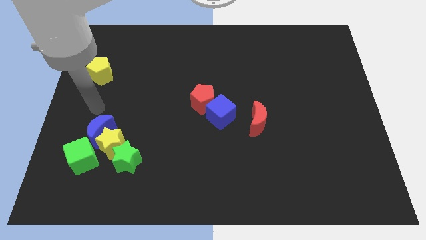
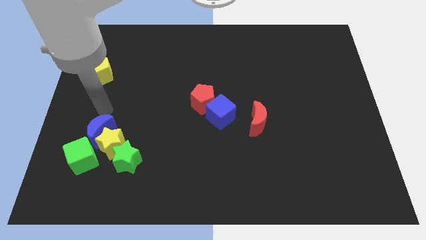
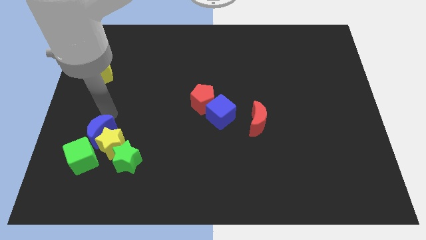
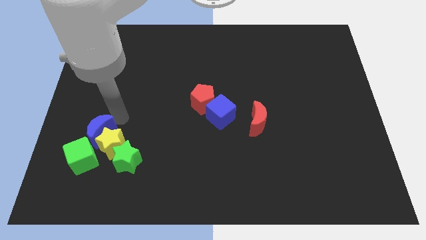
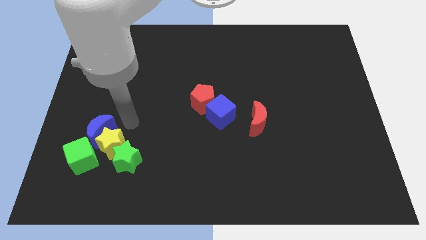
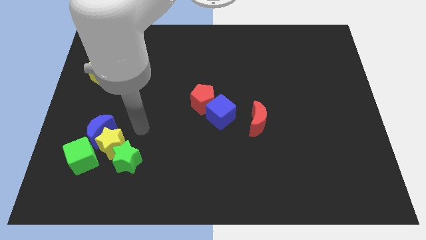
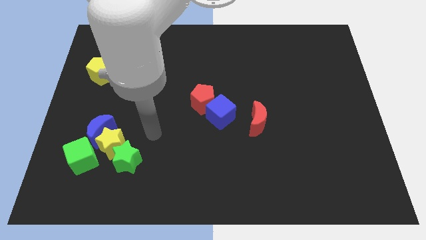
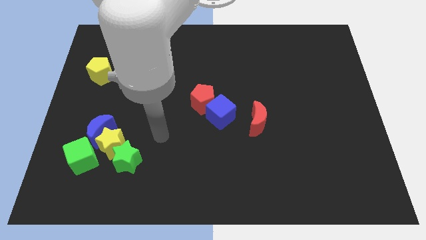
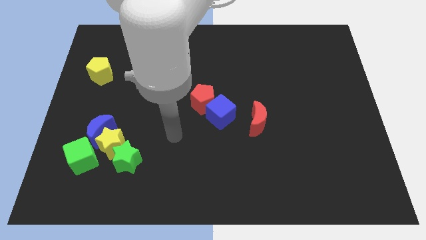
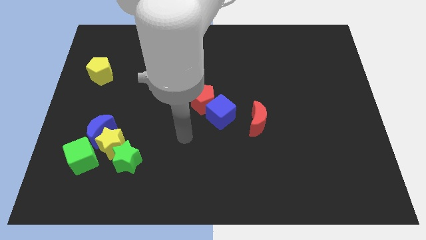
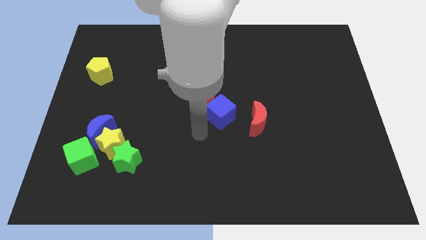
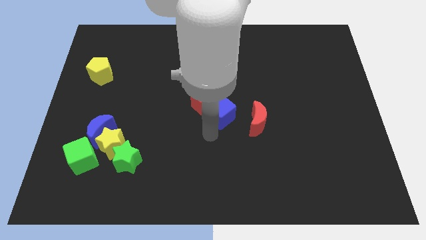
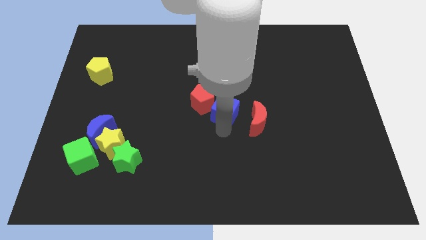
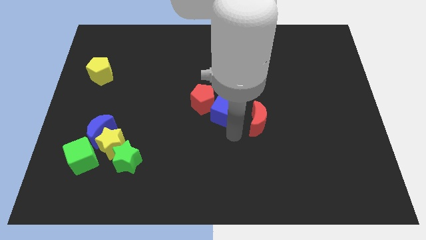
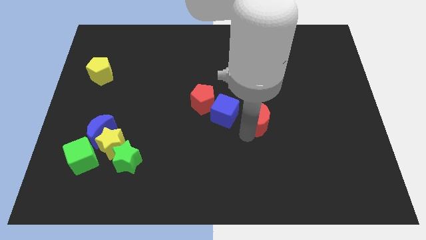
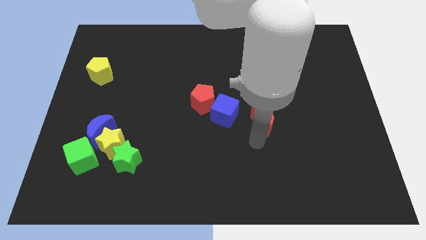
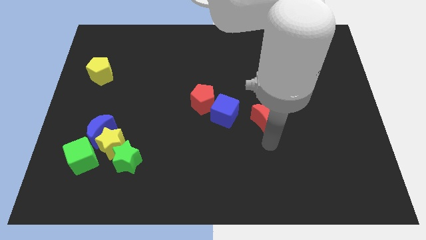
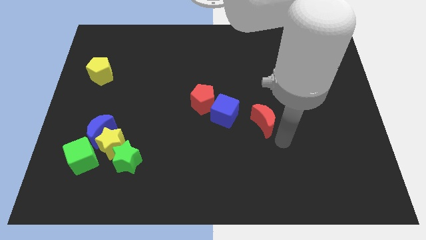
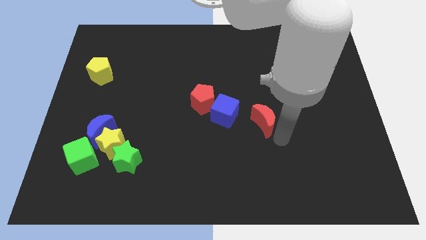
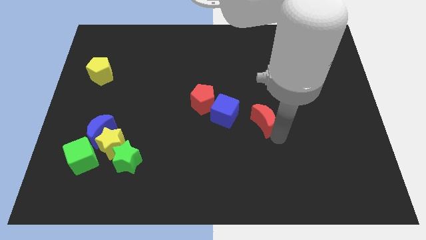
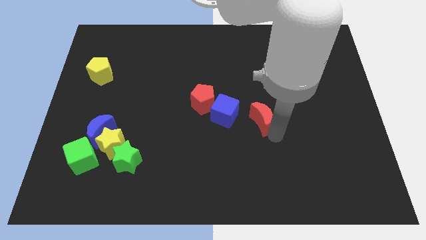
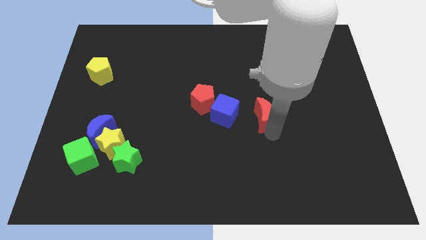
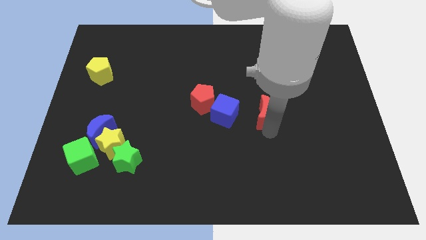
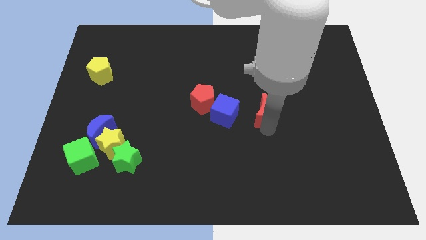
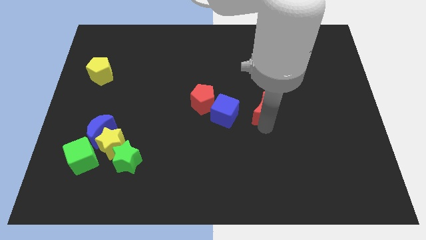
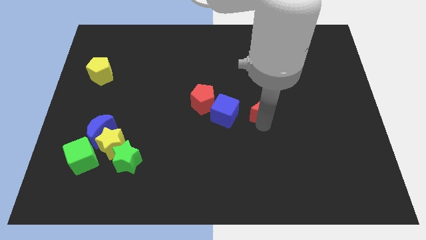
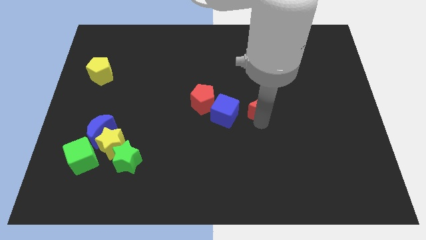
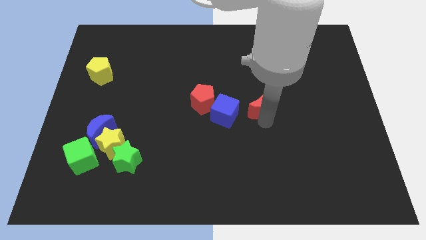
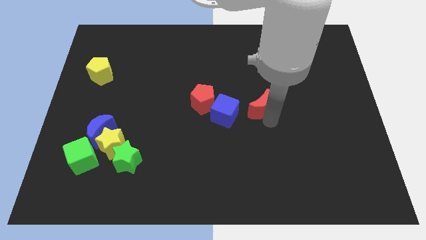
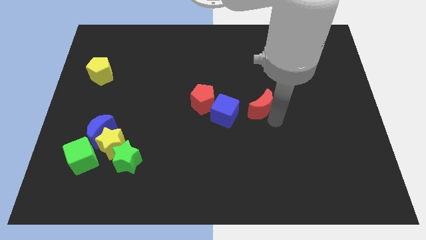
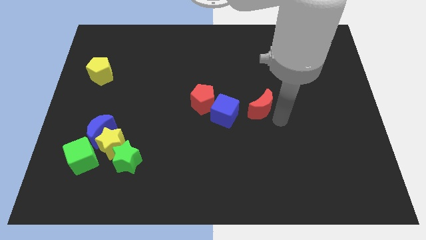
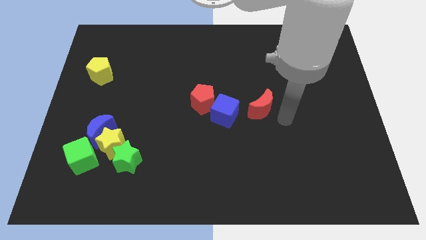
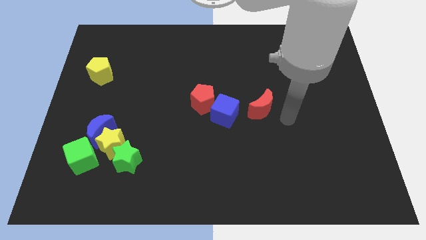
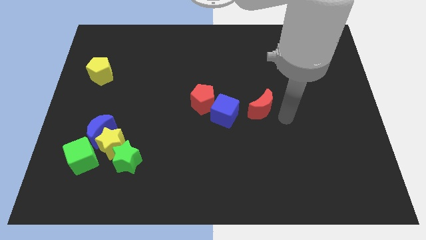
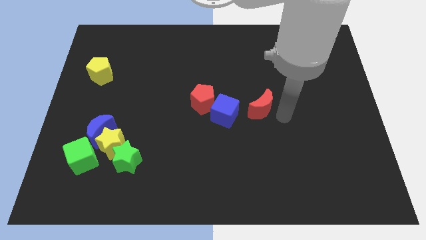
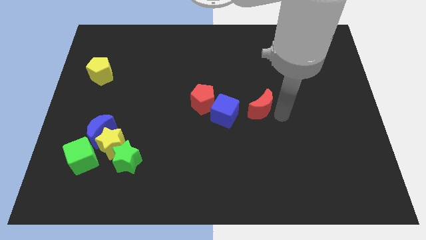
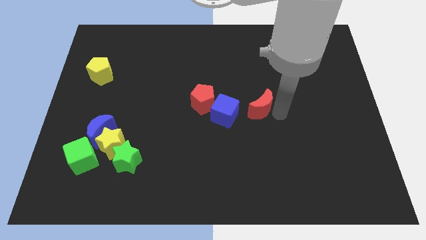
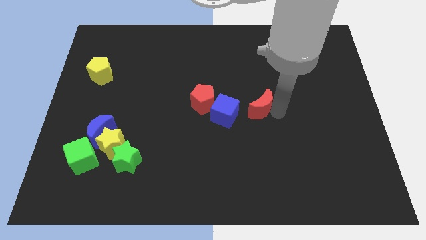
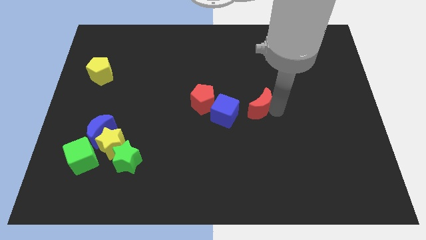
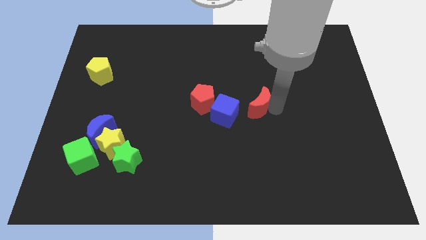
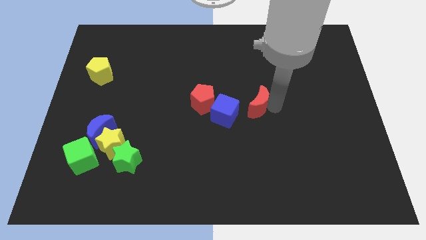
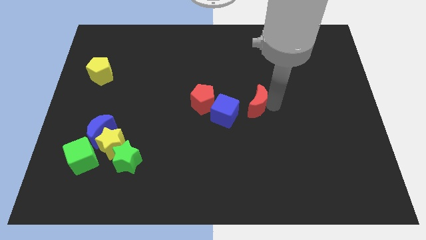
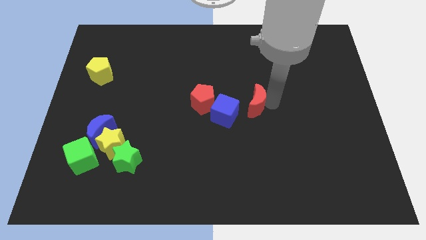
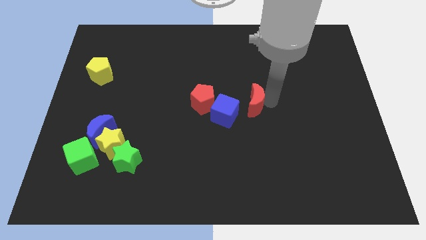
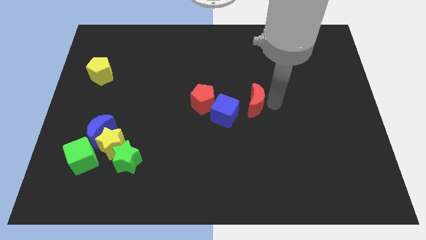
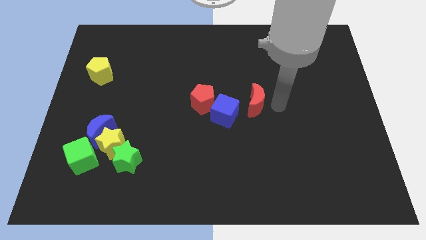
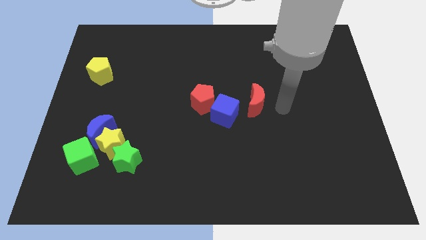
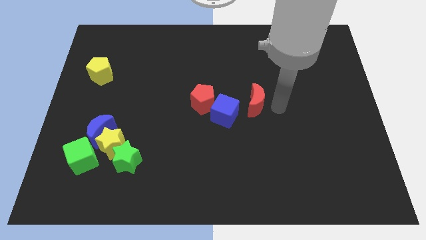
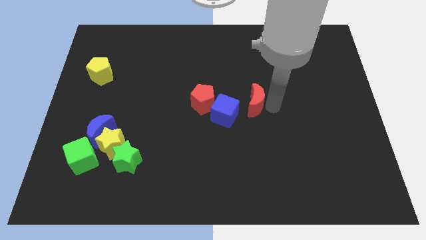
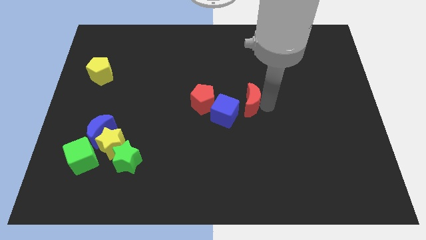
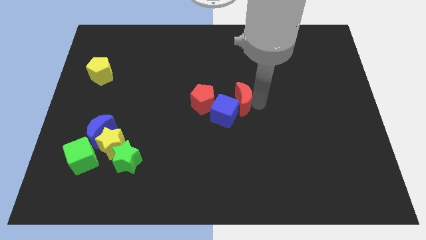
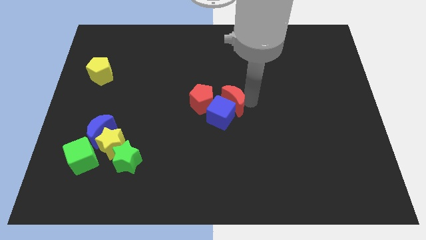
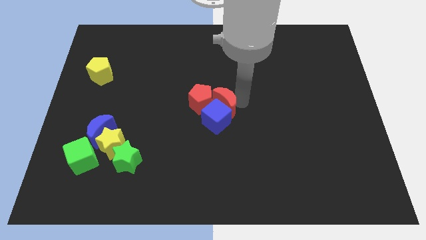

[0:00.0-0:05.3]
slide the red moon close to the red pentagon

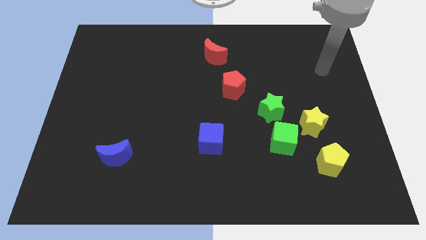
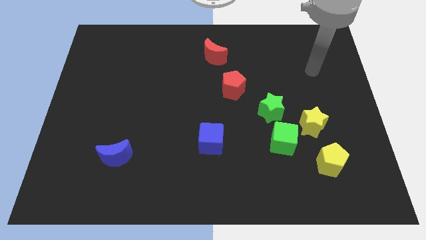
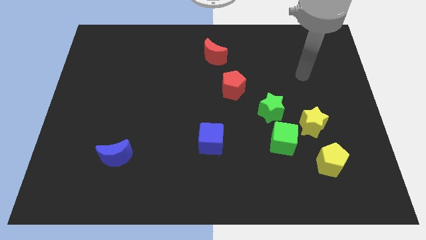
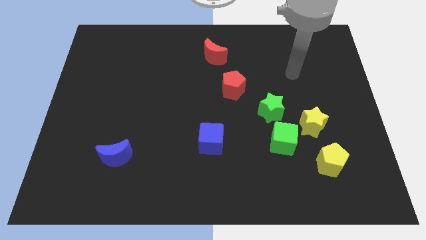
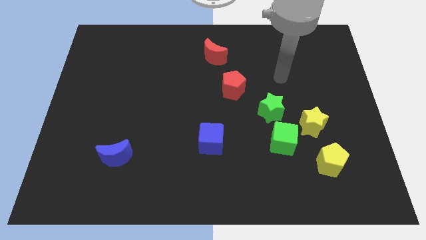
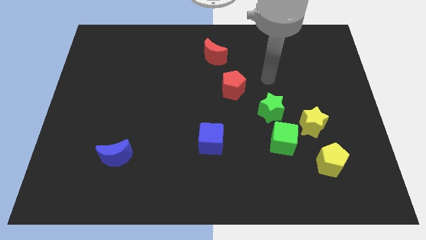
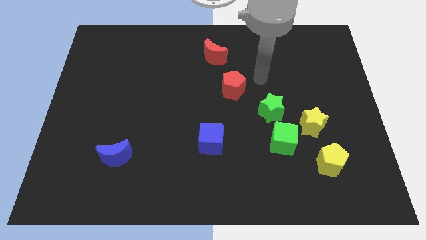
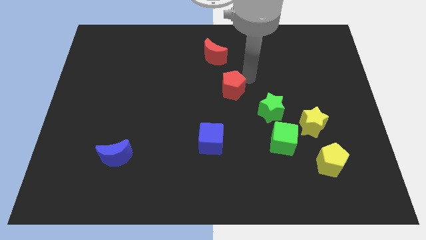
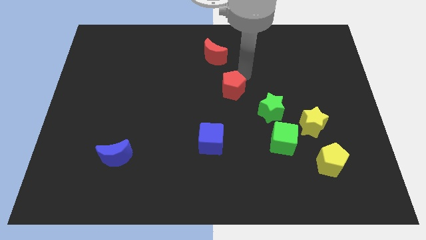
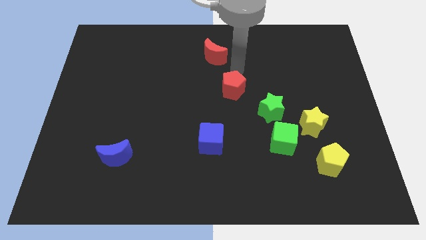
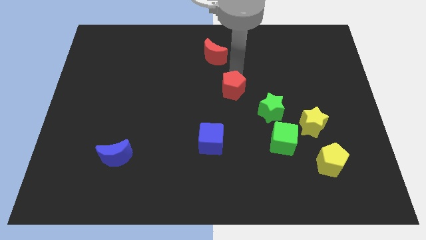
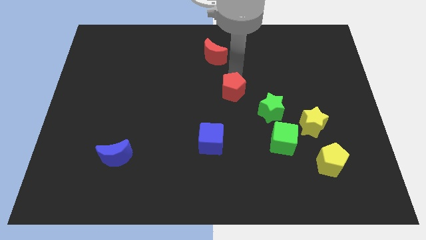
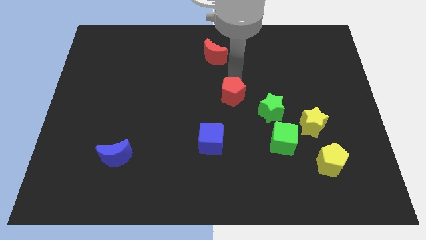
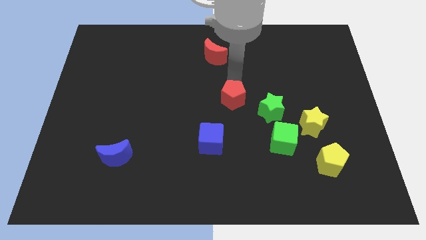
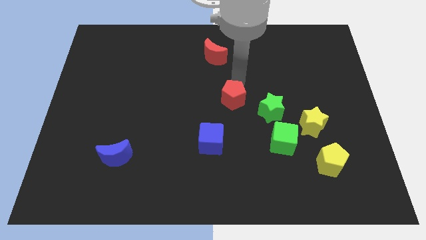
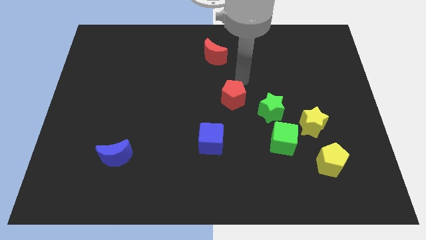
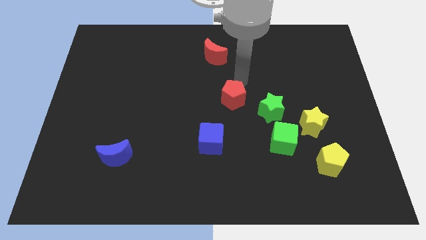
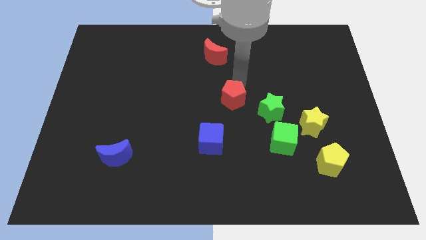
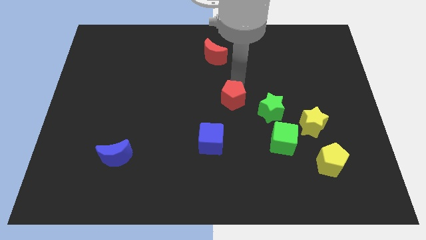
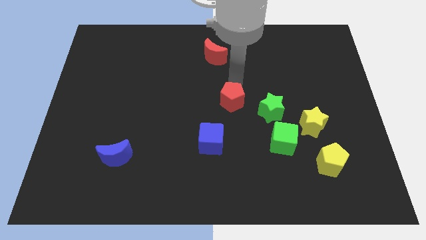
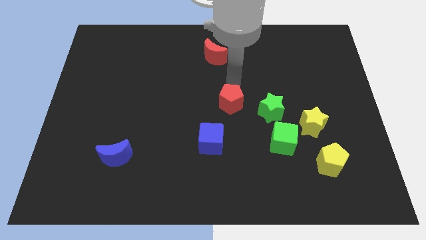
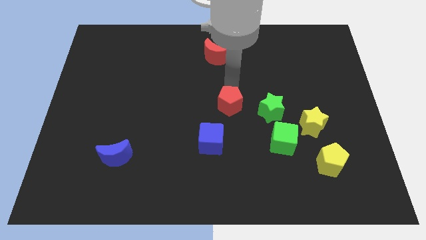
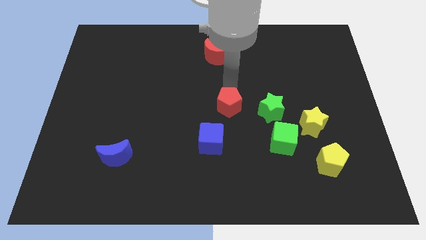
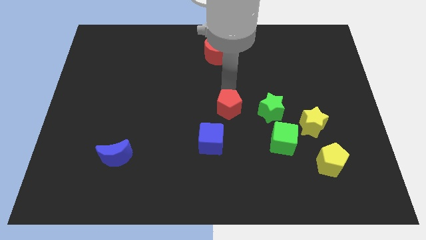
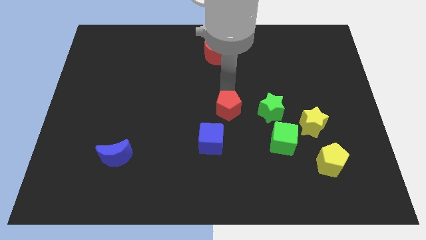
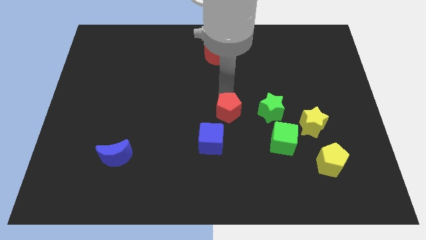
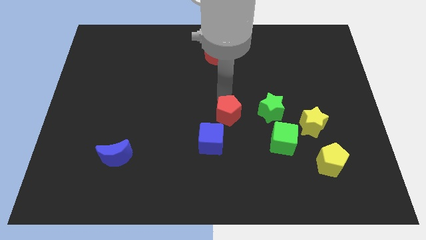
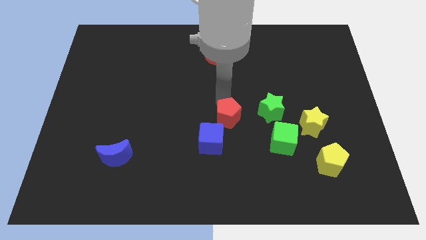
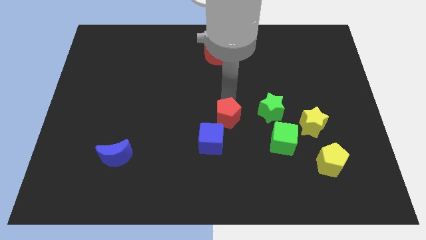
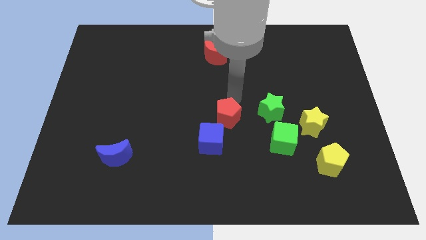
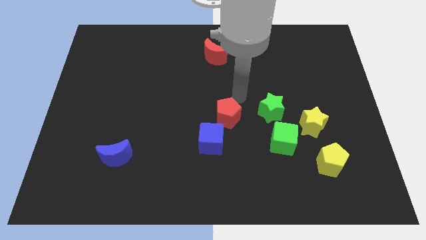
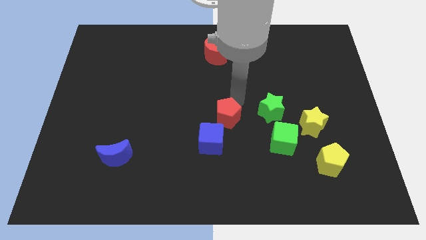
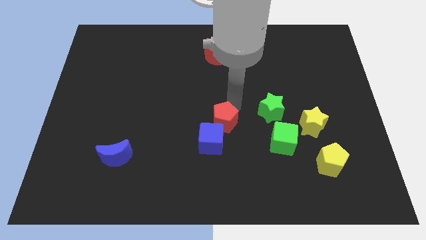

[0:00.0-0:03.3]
push the red pentagon to the blue cube
